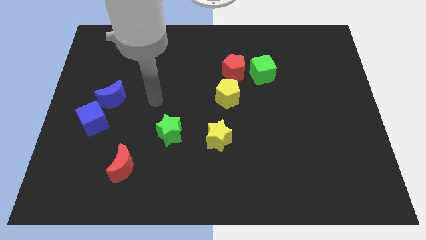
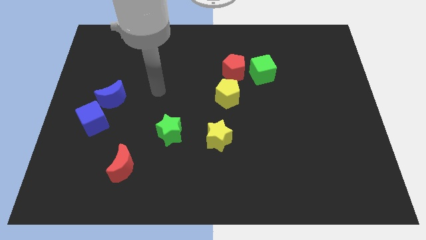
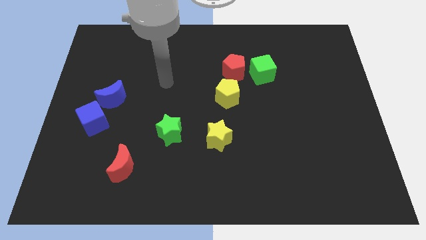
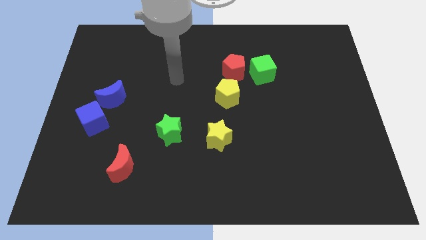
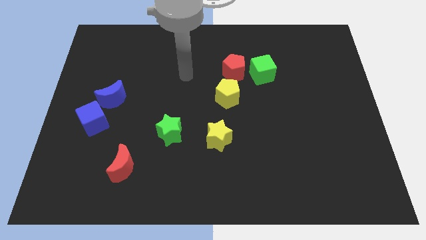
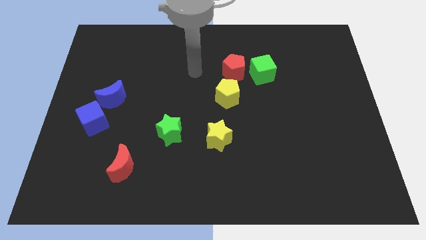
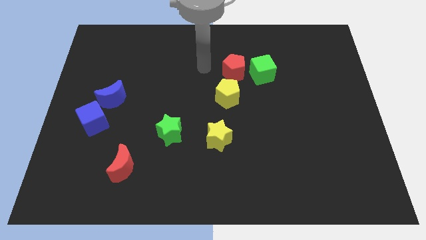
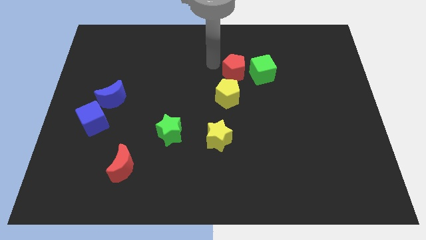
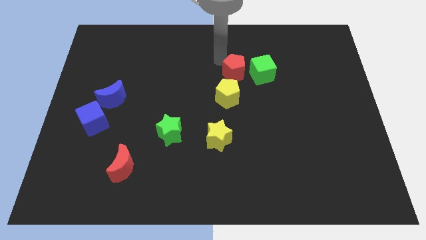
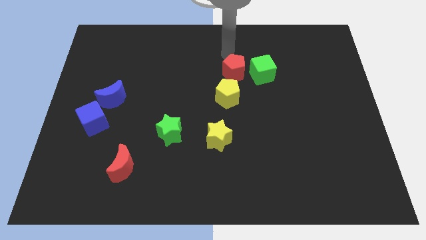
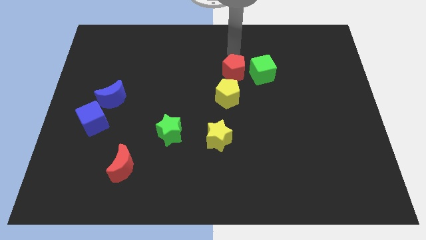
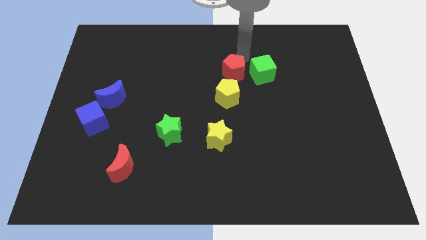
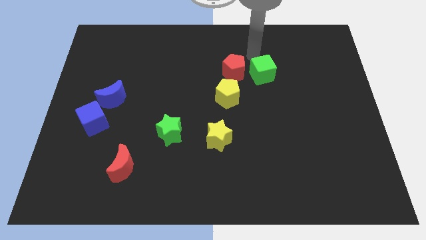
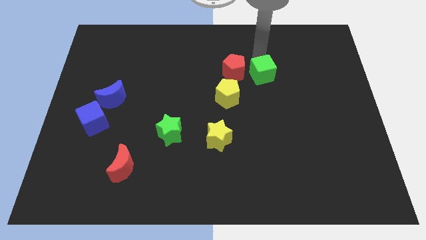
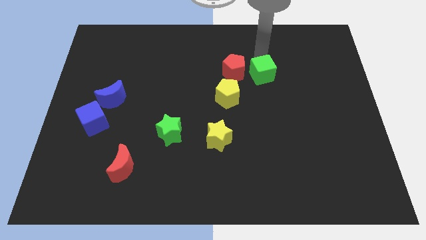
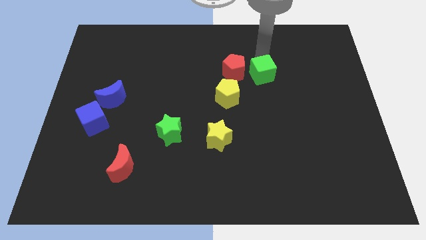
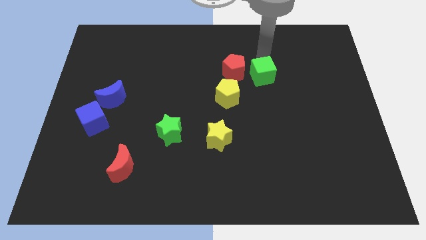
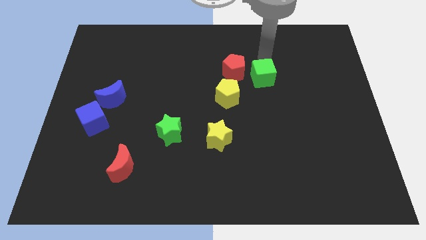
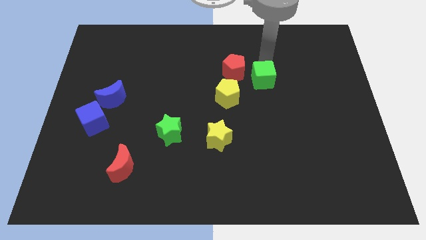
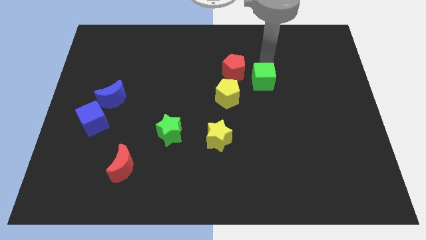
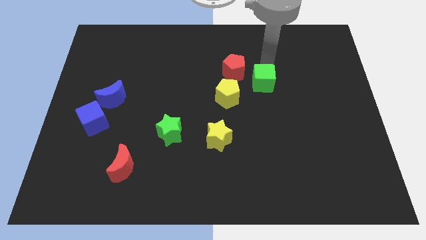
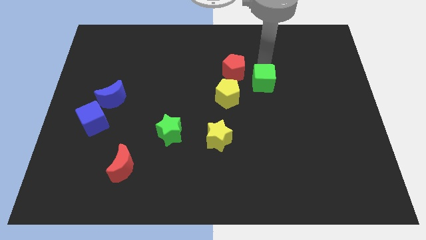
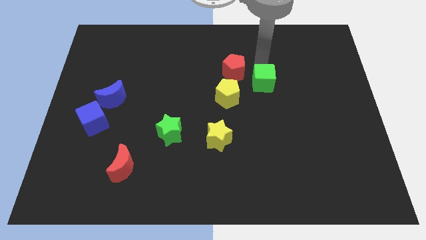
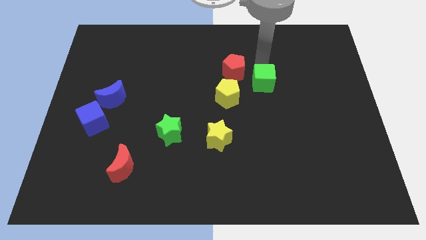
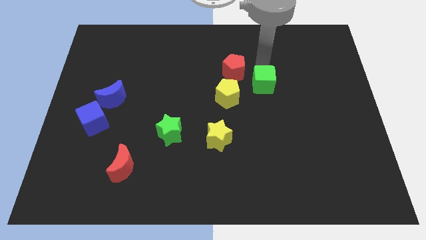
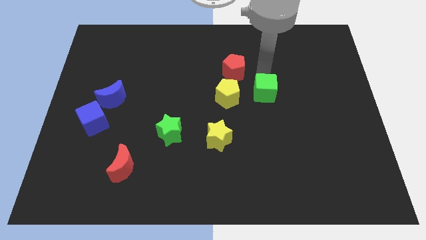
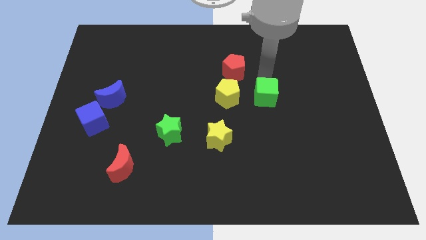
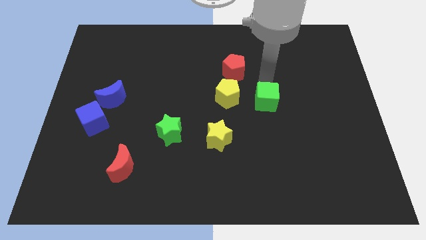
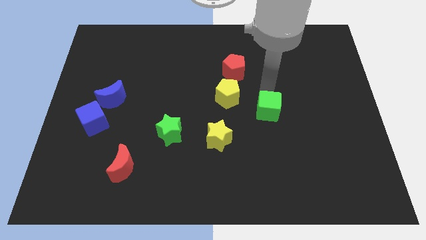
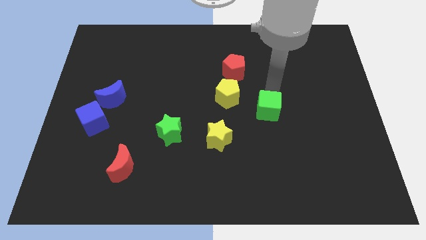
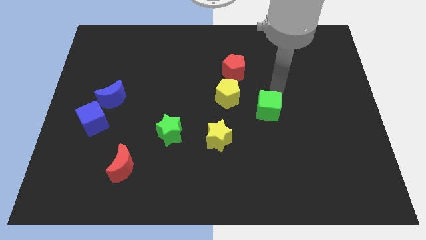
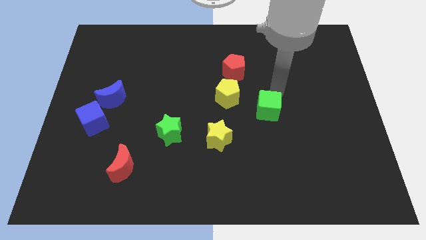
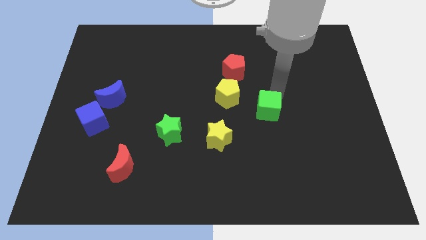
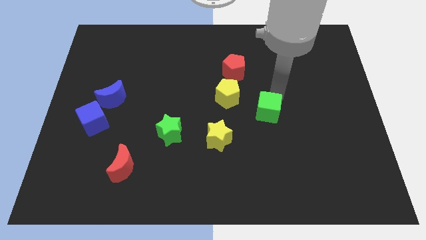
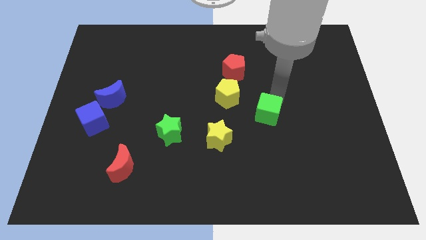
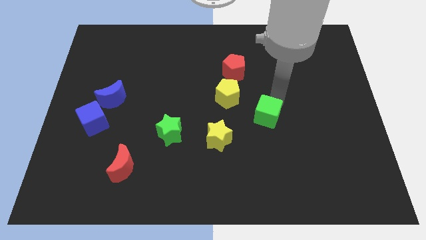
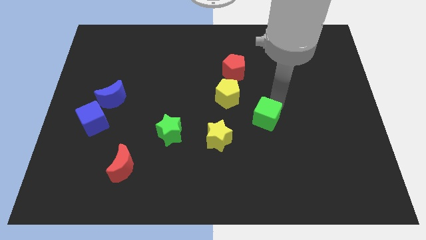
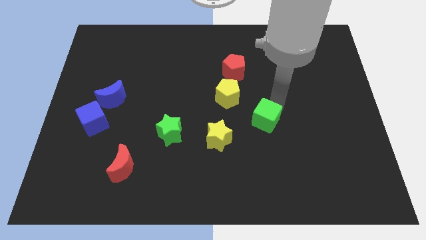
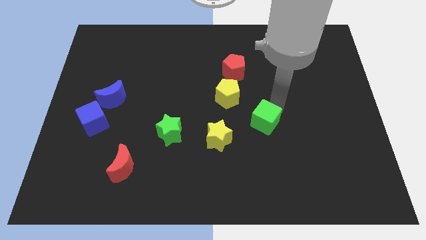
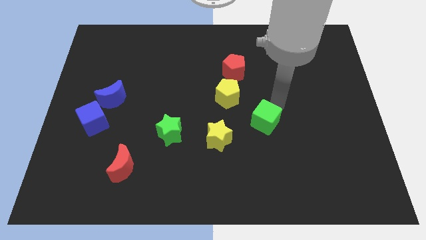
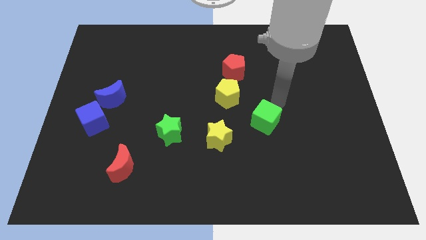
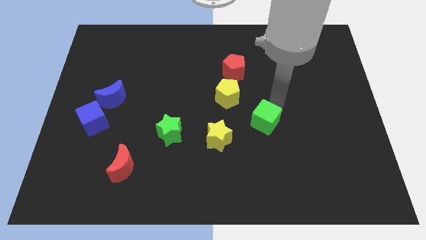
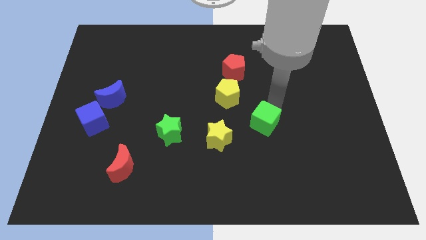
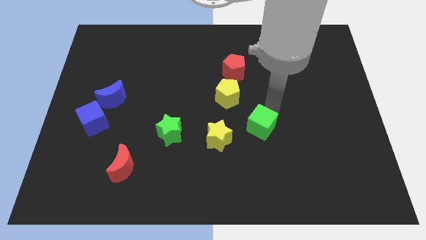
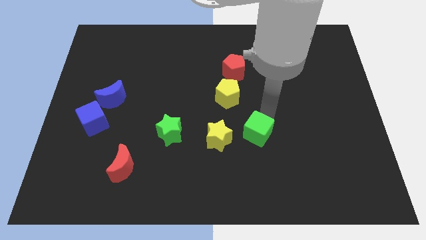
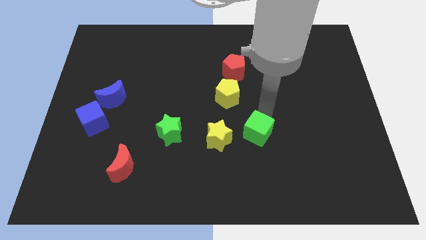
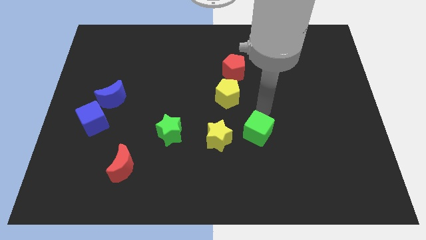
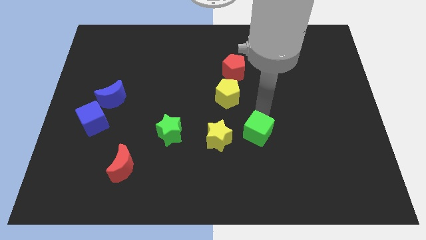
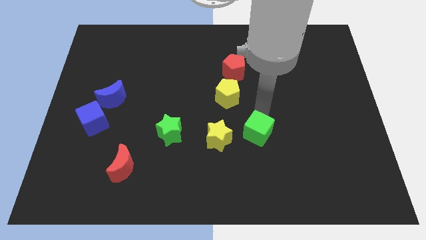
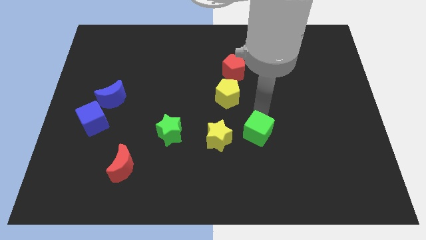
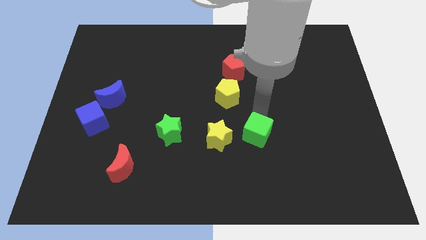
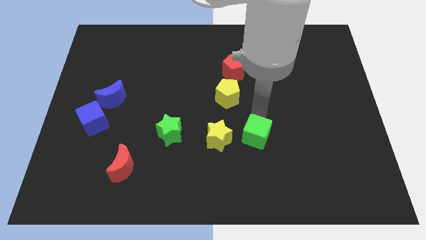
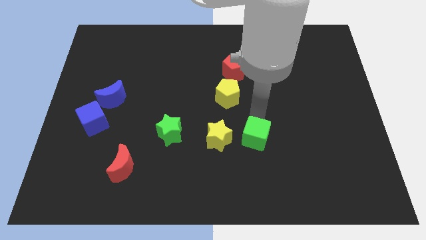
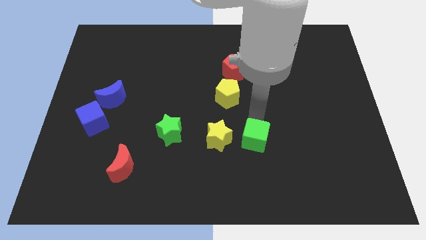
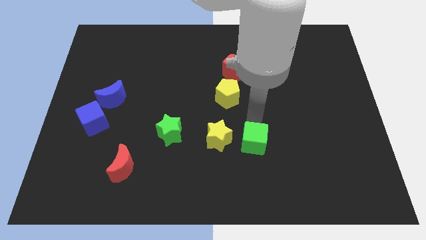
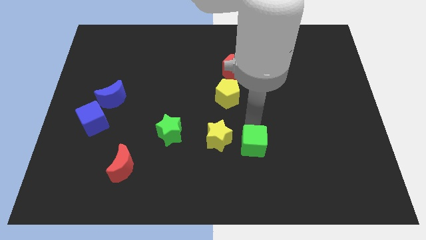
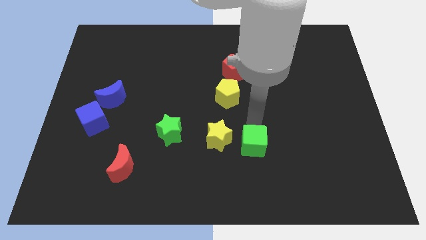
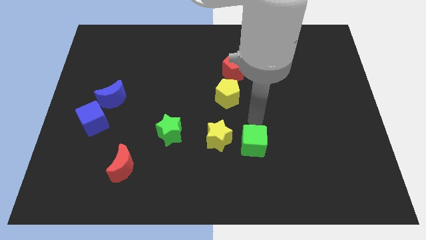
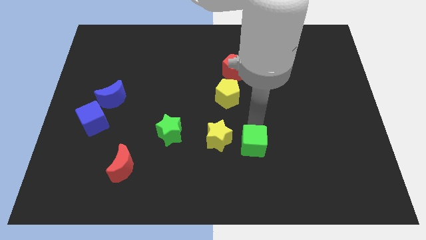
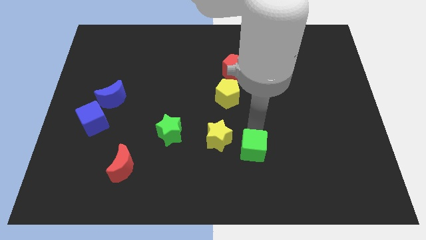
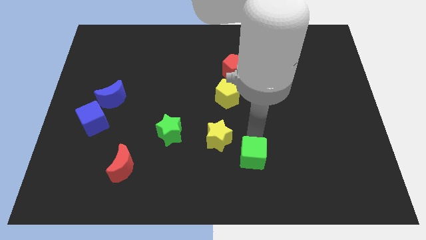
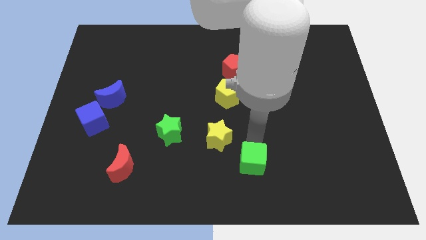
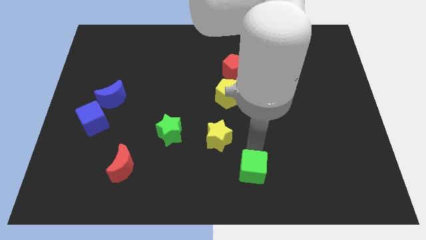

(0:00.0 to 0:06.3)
move the green cube to the bottom

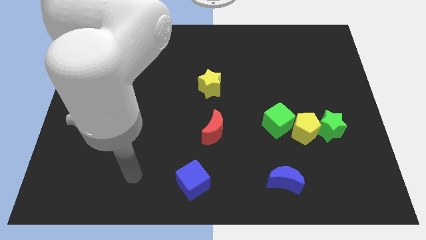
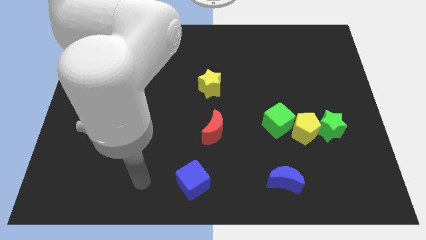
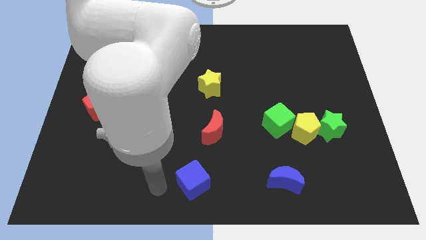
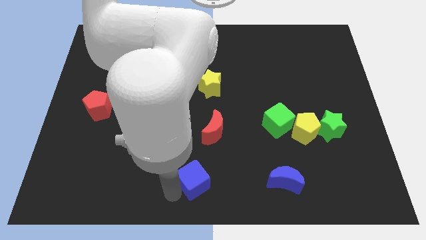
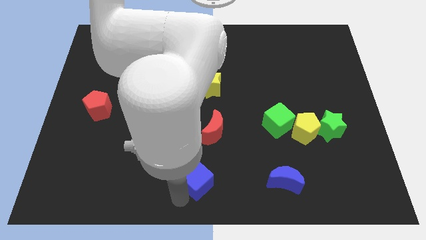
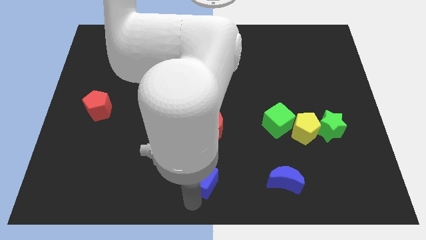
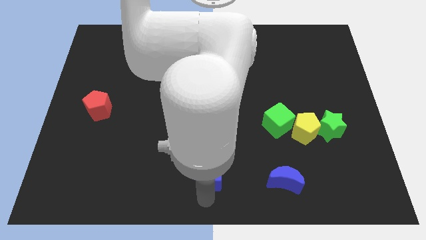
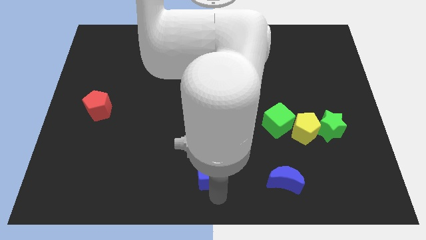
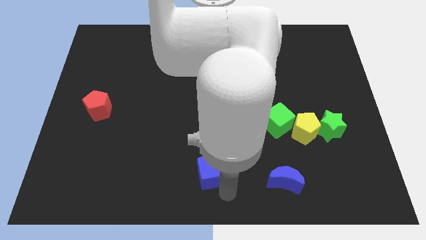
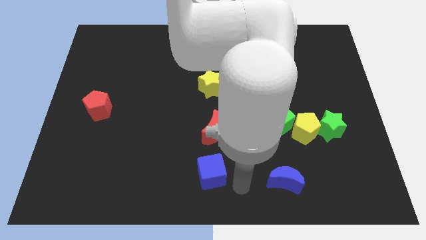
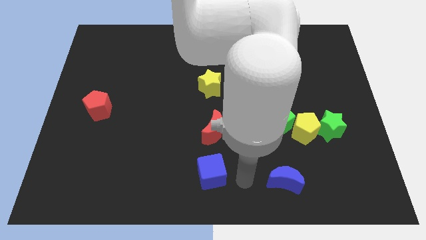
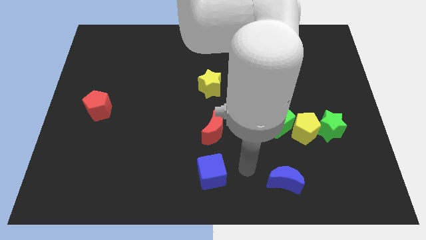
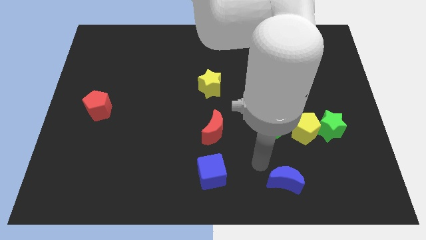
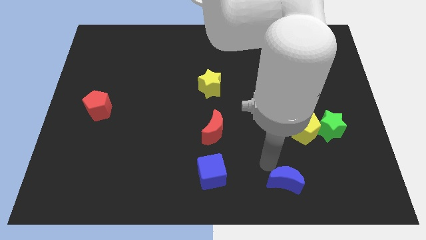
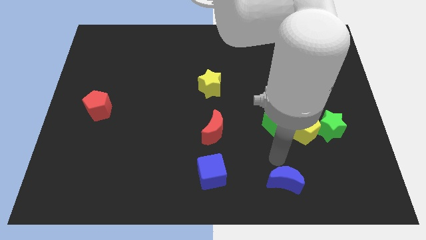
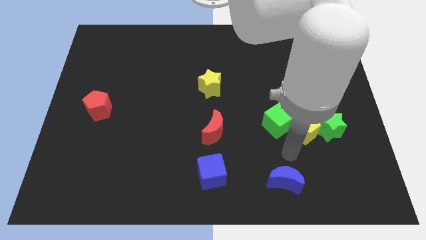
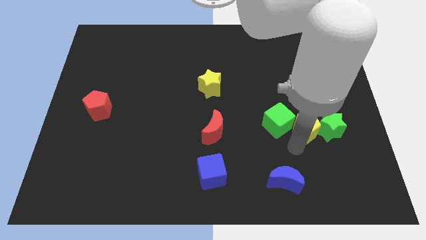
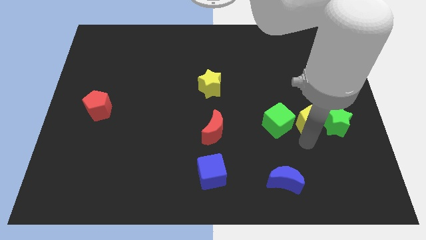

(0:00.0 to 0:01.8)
push the green star to the center right
